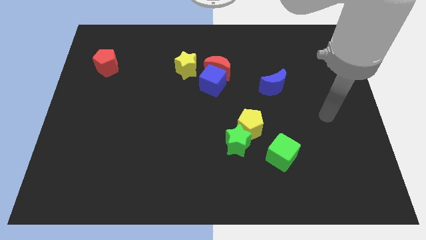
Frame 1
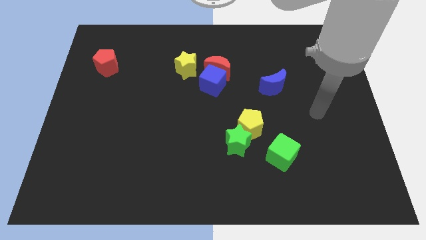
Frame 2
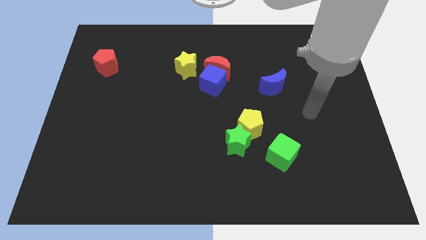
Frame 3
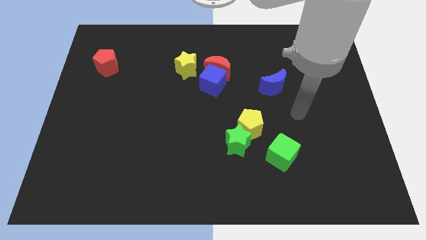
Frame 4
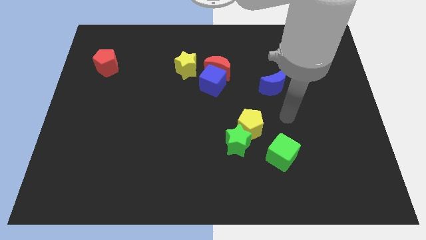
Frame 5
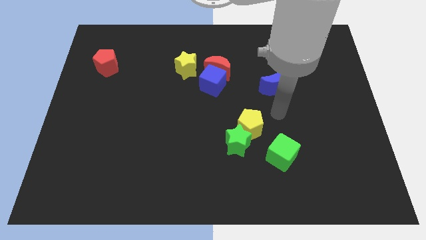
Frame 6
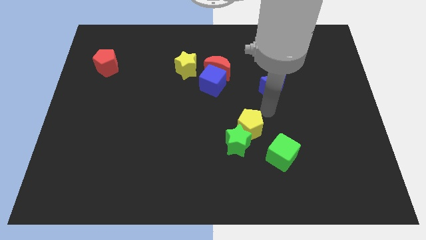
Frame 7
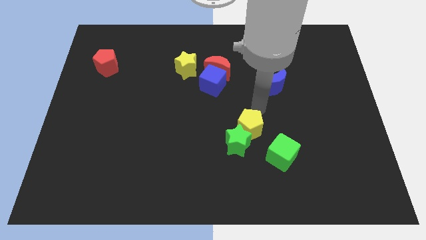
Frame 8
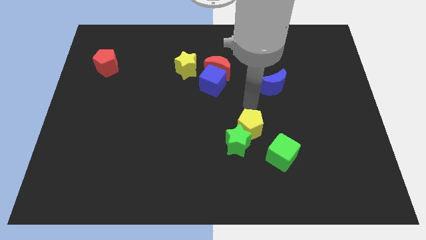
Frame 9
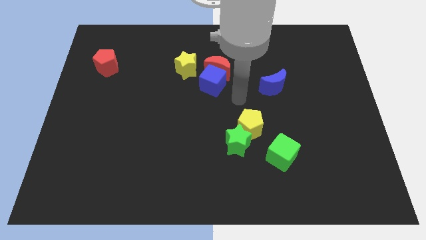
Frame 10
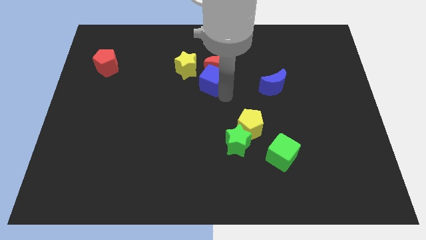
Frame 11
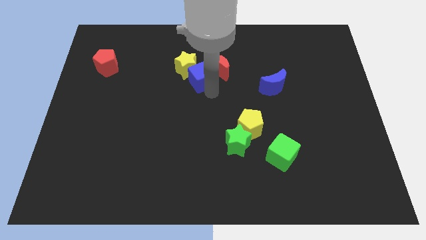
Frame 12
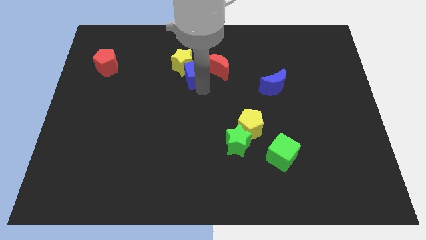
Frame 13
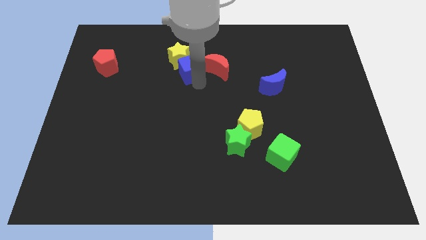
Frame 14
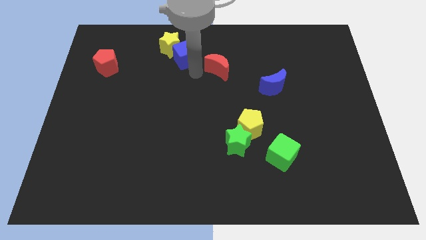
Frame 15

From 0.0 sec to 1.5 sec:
pull the red moon apart from the blue cube and yellow star

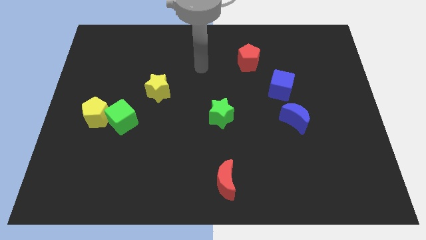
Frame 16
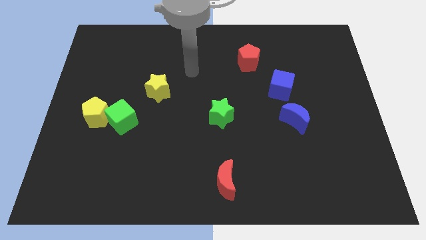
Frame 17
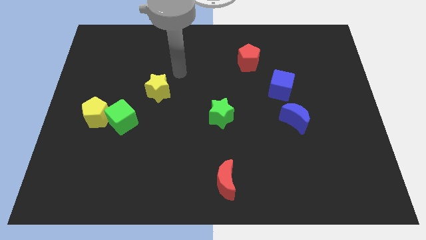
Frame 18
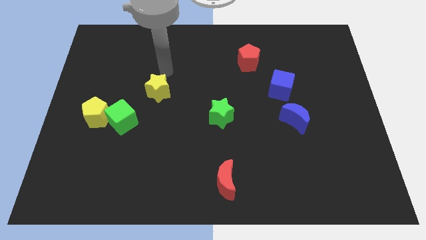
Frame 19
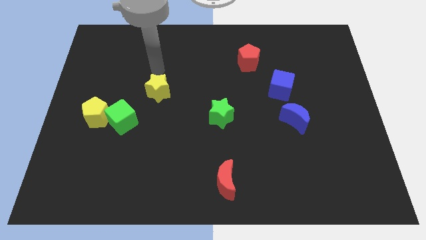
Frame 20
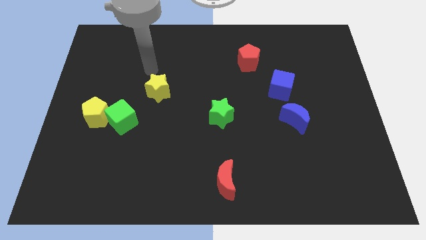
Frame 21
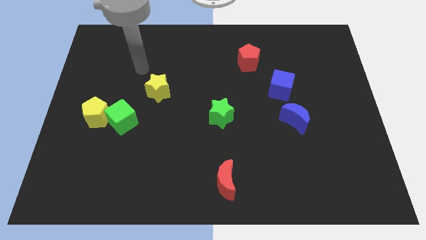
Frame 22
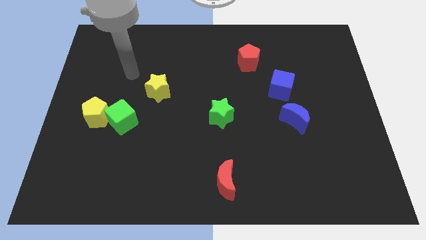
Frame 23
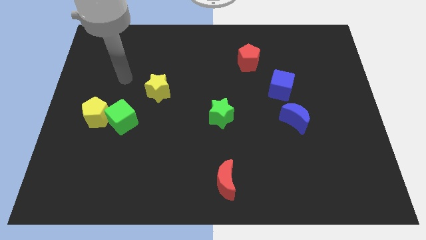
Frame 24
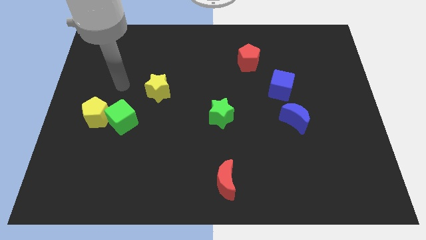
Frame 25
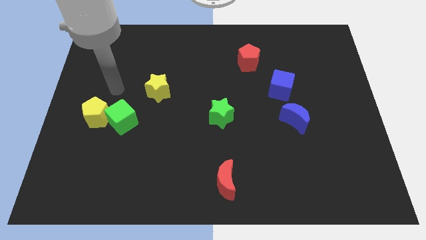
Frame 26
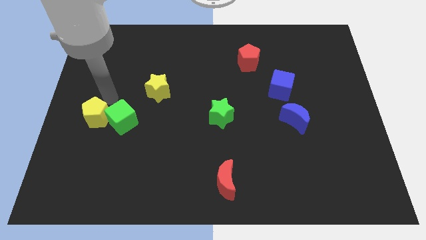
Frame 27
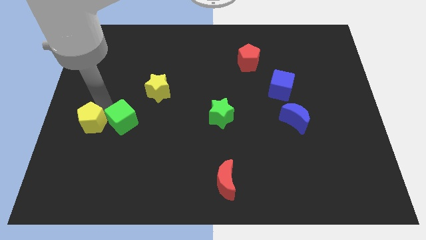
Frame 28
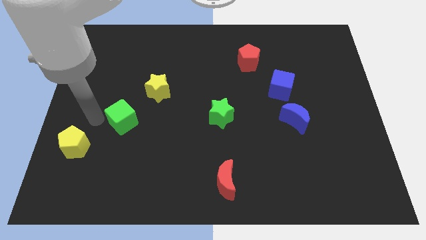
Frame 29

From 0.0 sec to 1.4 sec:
move the green cube away from the yellow pentagon

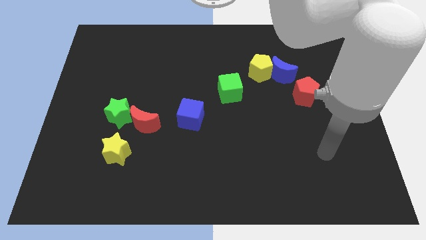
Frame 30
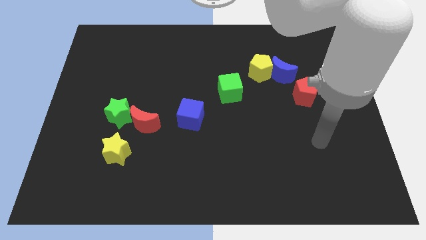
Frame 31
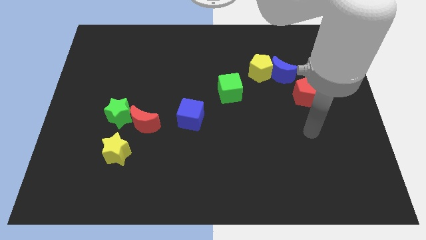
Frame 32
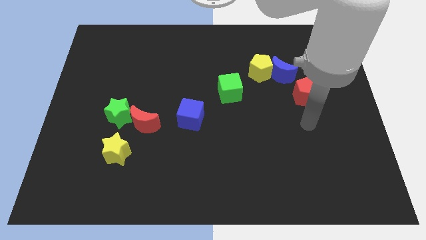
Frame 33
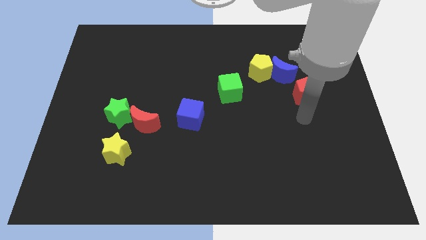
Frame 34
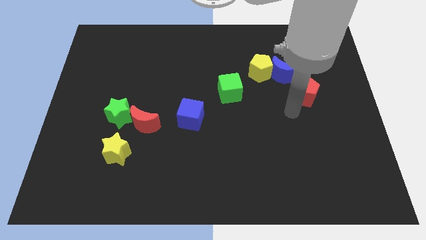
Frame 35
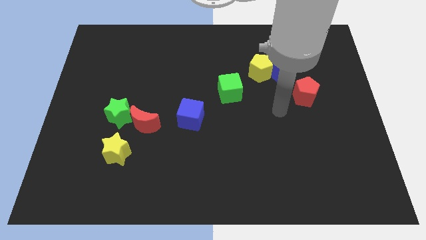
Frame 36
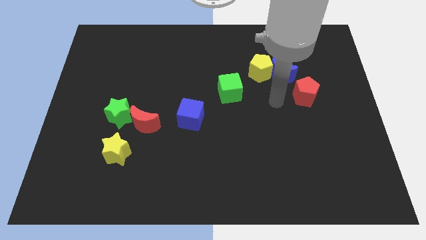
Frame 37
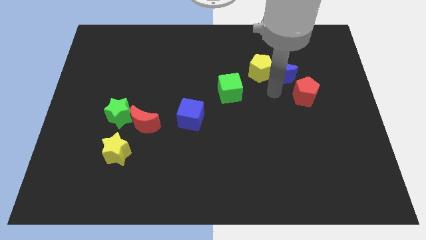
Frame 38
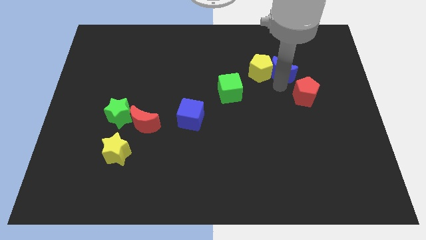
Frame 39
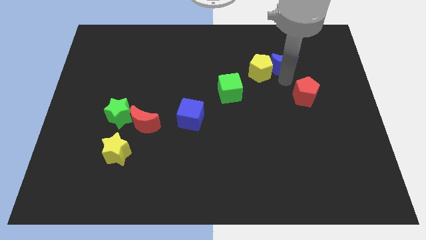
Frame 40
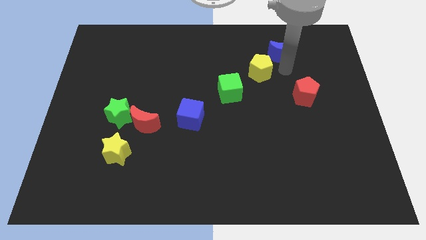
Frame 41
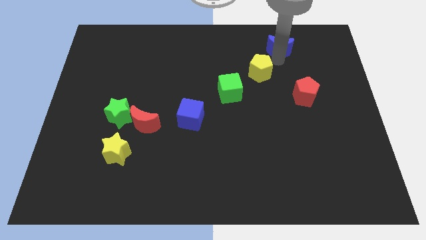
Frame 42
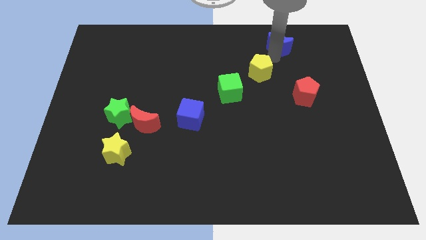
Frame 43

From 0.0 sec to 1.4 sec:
separate the yellow pentagon from the blue moon

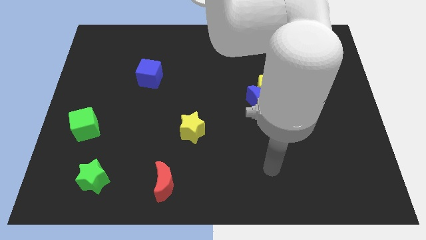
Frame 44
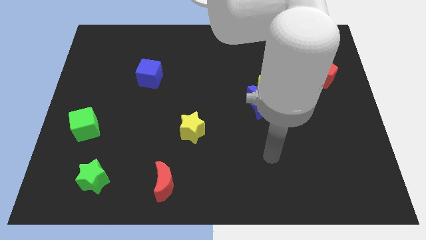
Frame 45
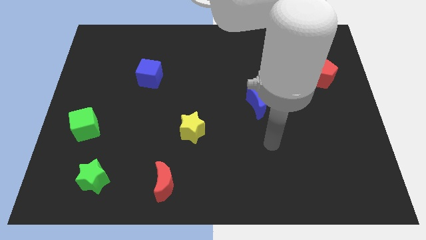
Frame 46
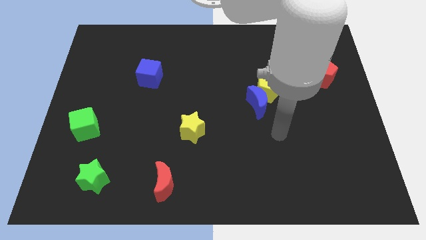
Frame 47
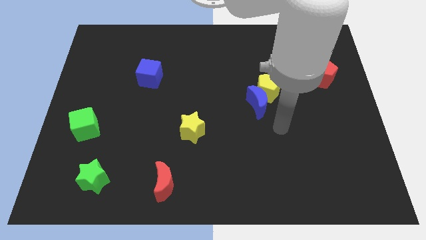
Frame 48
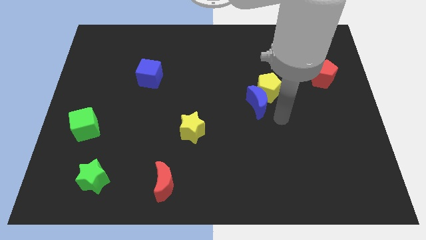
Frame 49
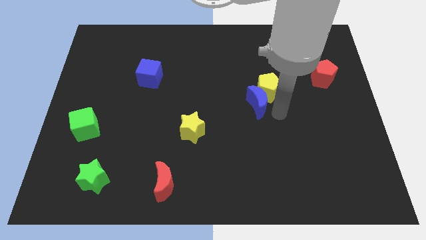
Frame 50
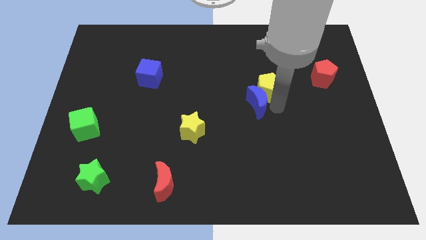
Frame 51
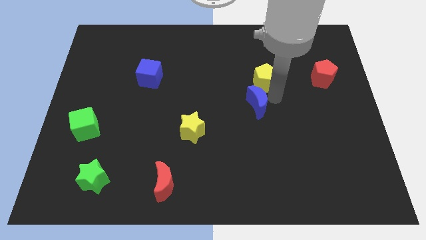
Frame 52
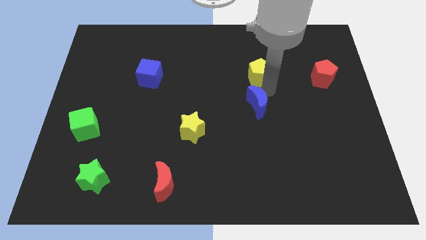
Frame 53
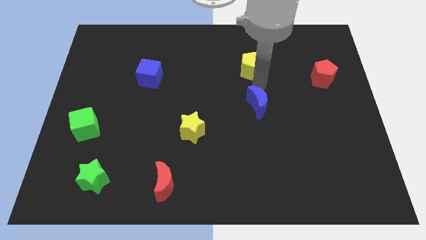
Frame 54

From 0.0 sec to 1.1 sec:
separate the blue moon from the yellow pentagon

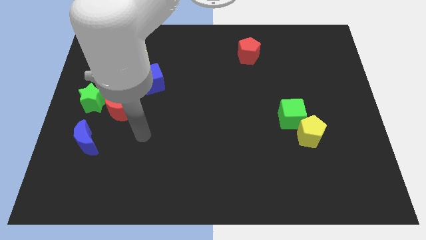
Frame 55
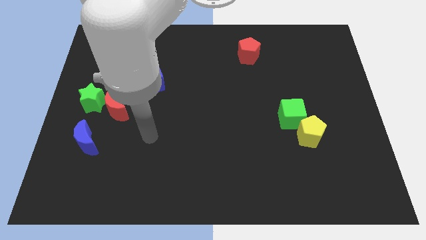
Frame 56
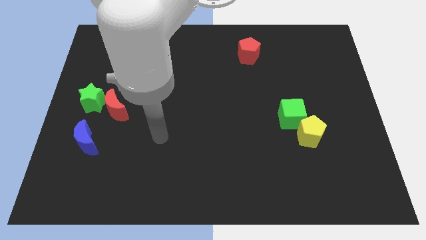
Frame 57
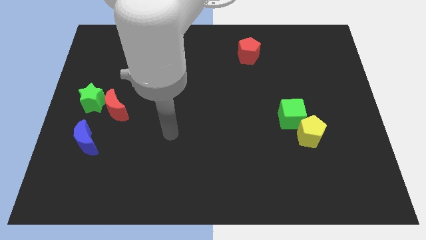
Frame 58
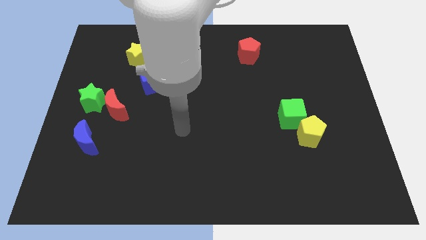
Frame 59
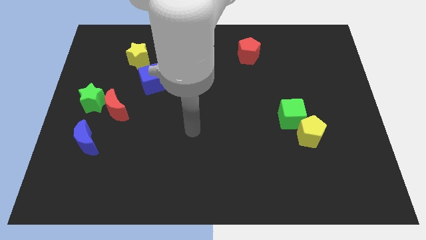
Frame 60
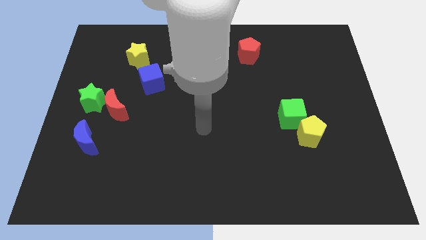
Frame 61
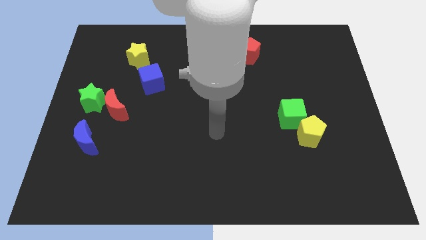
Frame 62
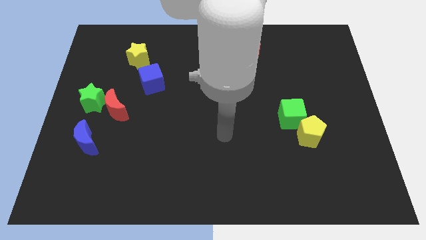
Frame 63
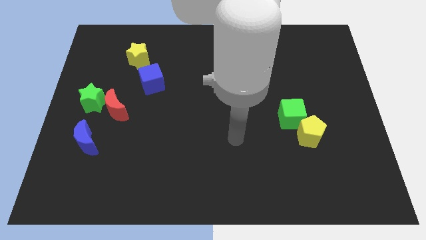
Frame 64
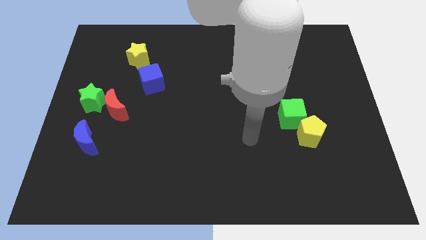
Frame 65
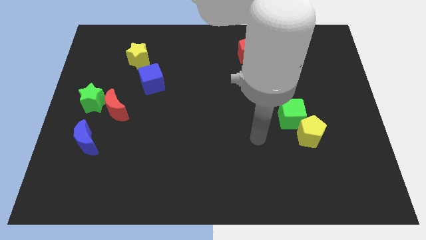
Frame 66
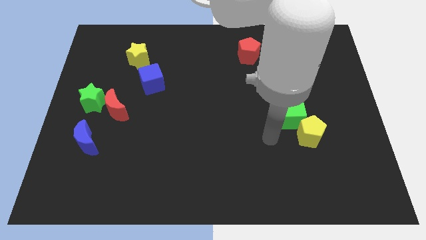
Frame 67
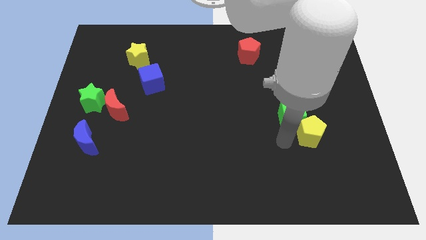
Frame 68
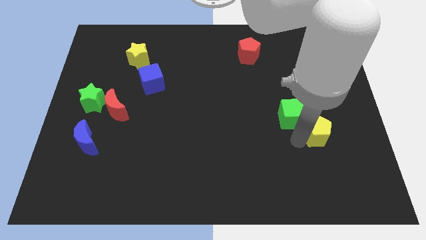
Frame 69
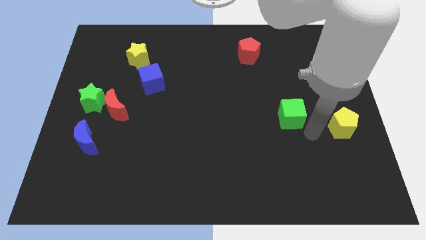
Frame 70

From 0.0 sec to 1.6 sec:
pull the green cube apart from the yellow pentagon

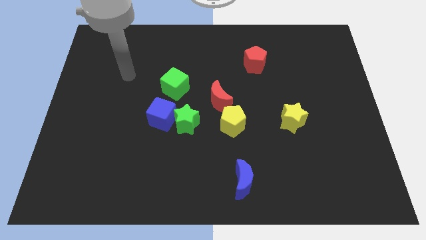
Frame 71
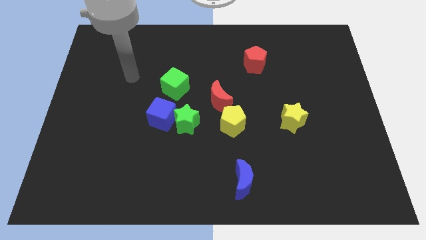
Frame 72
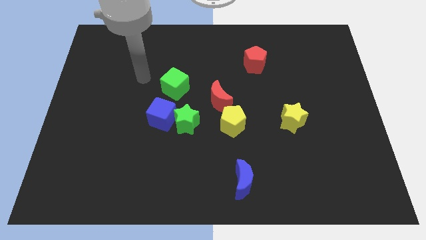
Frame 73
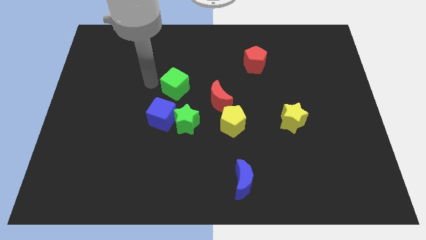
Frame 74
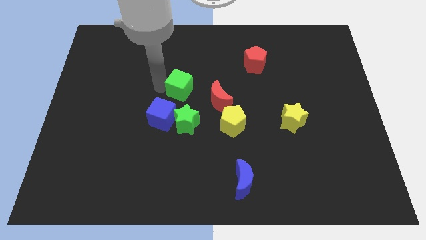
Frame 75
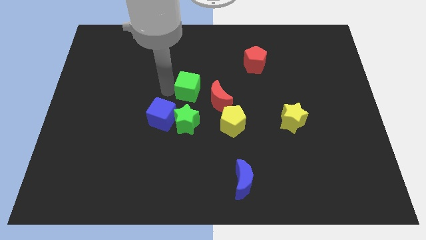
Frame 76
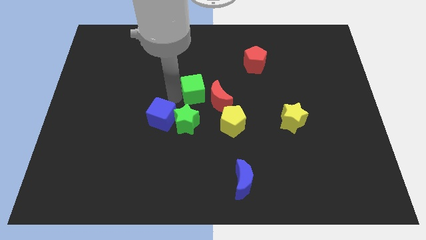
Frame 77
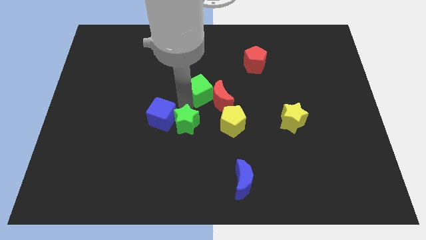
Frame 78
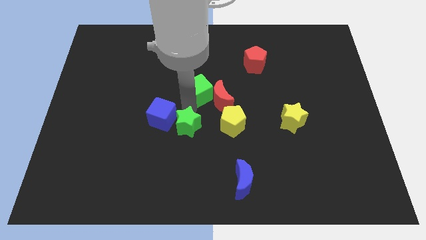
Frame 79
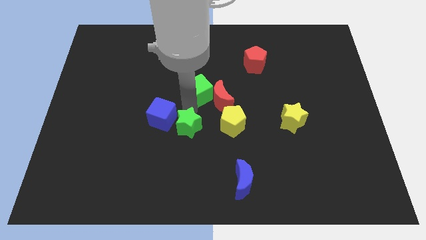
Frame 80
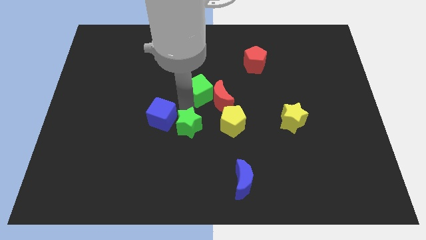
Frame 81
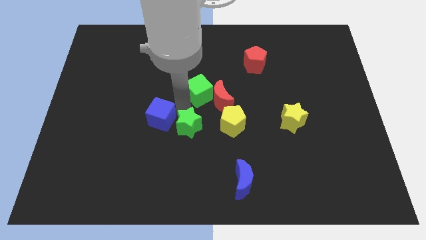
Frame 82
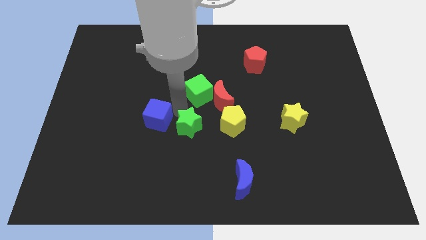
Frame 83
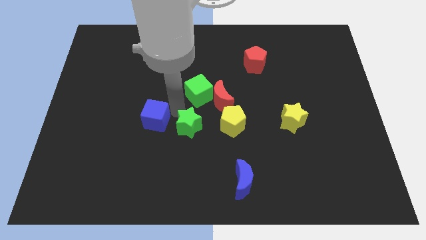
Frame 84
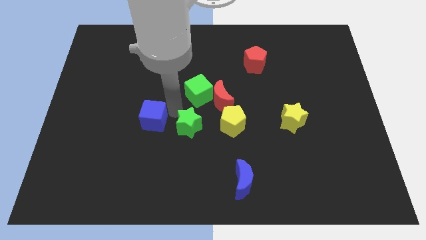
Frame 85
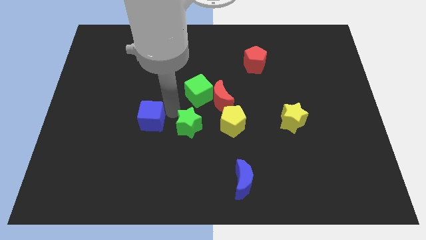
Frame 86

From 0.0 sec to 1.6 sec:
move the blue cube away from the green star and green cube

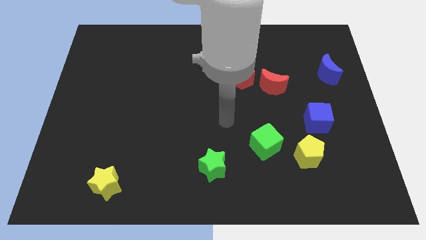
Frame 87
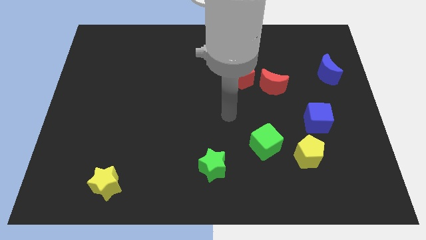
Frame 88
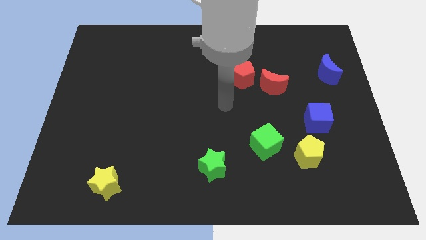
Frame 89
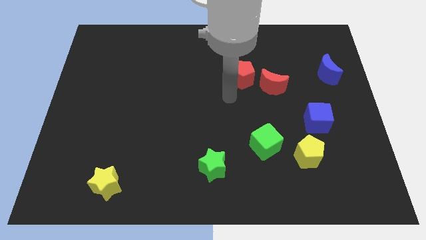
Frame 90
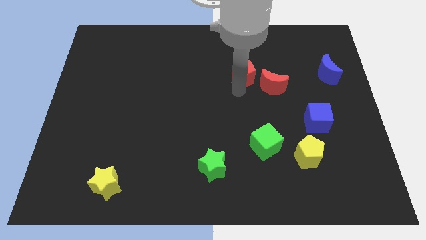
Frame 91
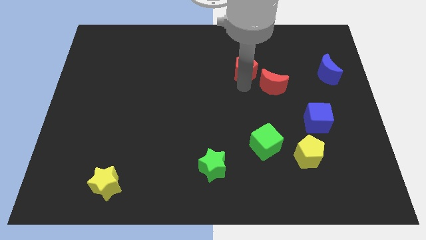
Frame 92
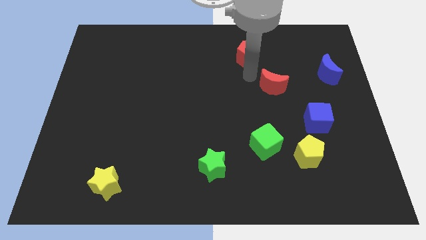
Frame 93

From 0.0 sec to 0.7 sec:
pull the red moon apart from the red pentagon
